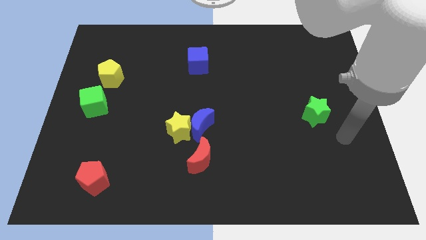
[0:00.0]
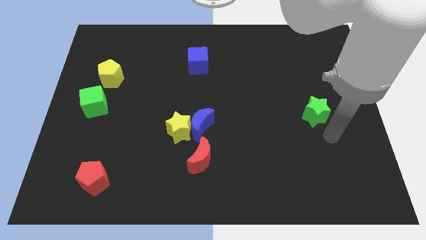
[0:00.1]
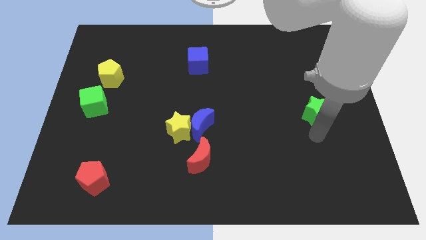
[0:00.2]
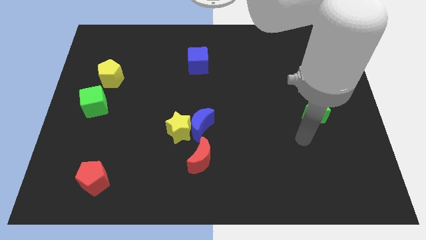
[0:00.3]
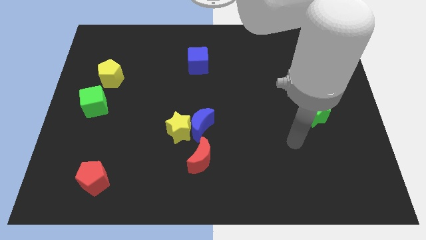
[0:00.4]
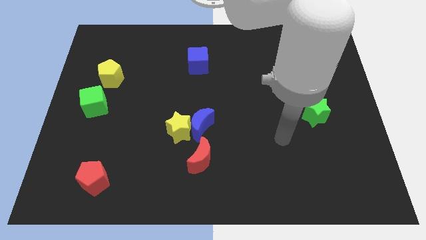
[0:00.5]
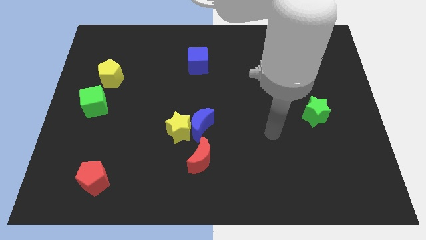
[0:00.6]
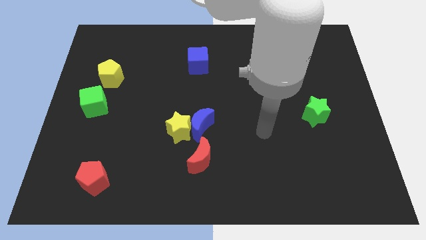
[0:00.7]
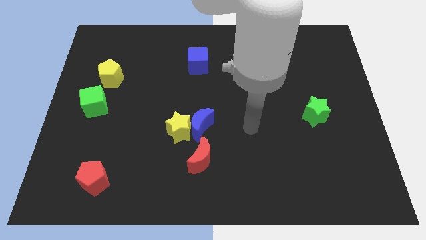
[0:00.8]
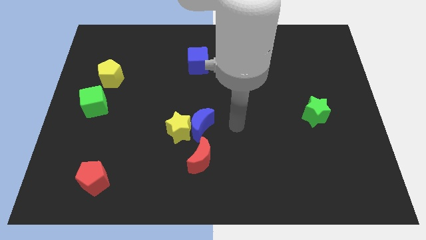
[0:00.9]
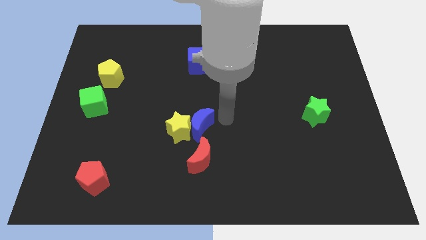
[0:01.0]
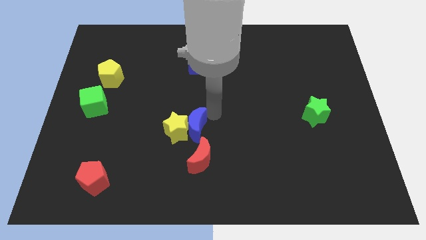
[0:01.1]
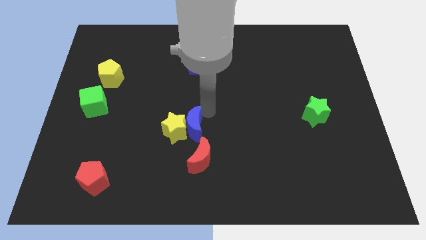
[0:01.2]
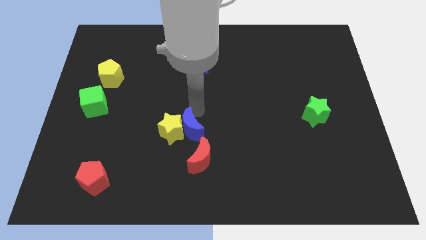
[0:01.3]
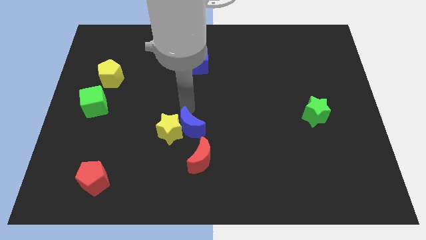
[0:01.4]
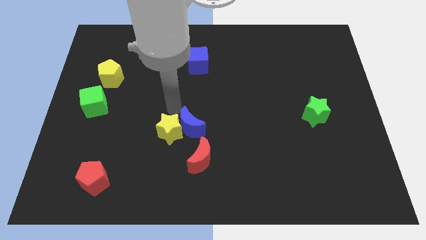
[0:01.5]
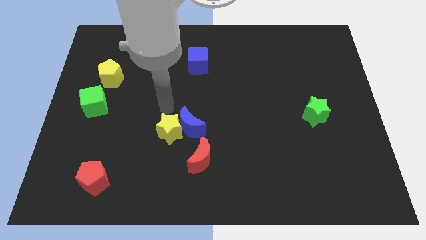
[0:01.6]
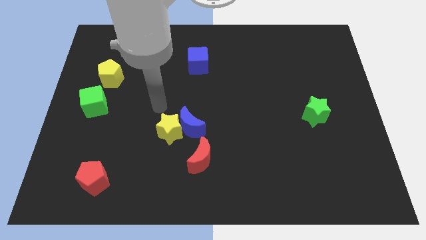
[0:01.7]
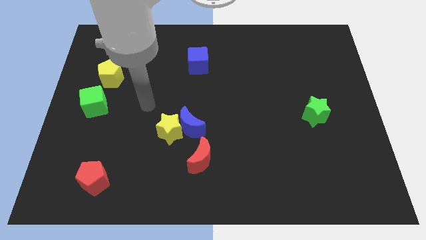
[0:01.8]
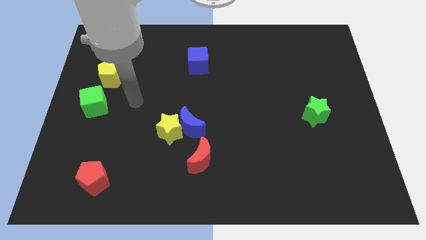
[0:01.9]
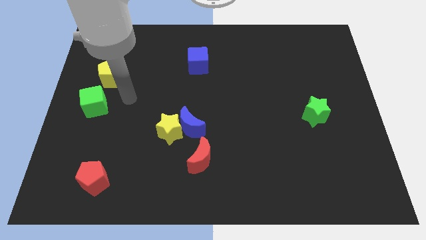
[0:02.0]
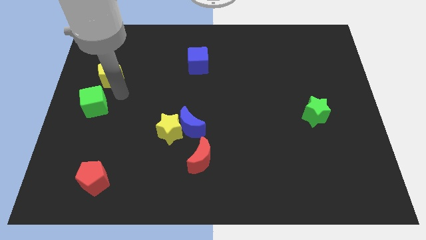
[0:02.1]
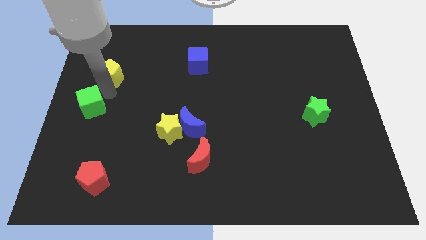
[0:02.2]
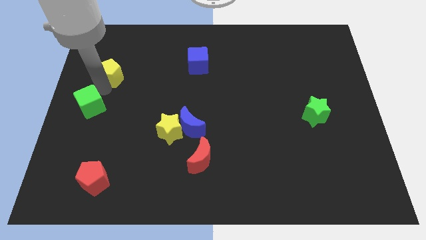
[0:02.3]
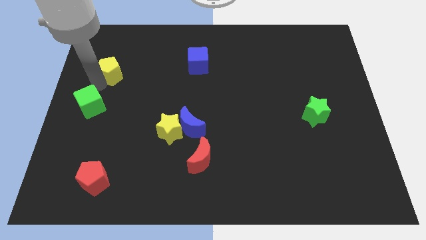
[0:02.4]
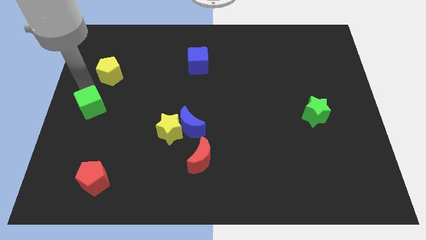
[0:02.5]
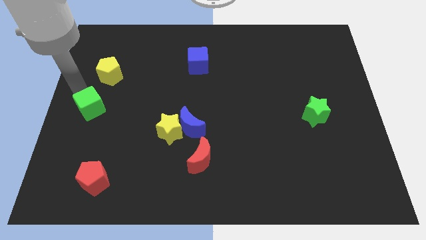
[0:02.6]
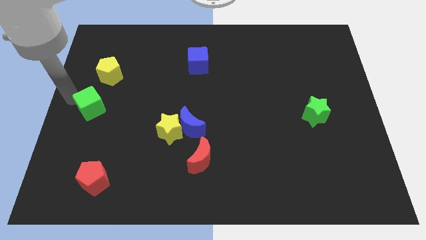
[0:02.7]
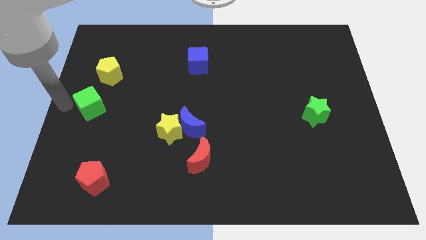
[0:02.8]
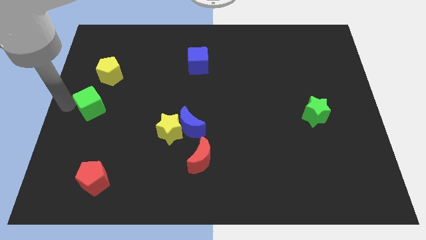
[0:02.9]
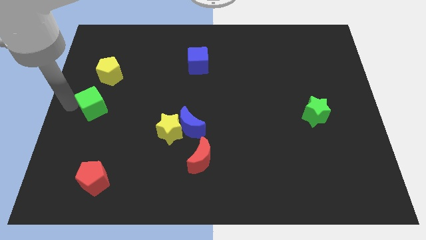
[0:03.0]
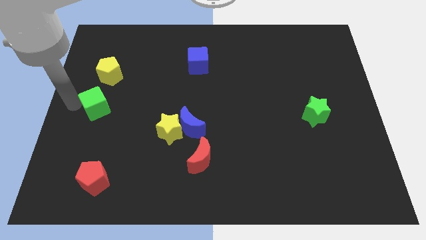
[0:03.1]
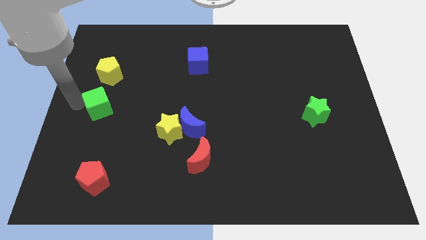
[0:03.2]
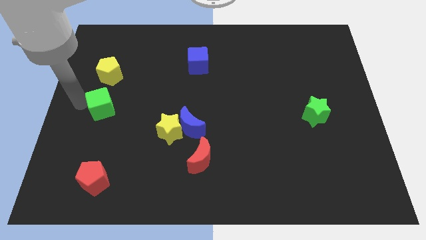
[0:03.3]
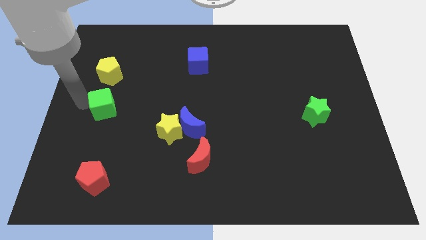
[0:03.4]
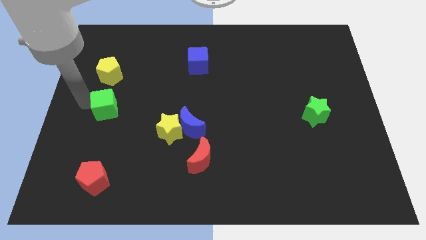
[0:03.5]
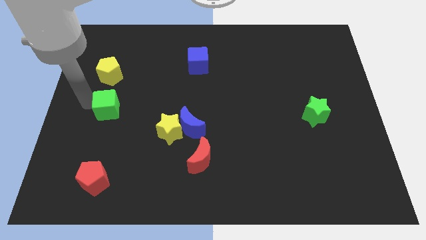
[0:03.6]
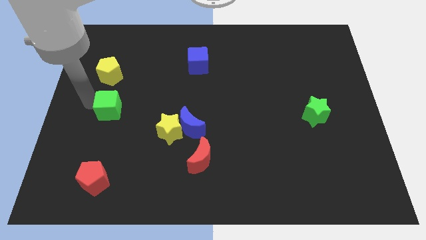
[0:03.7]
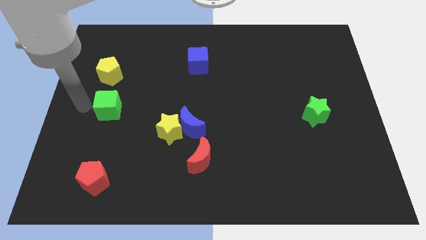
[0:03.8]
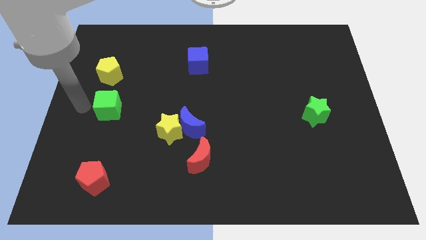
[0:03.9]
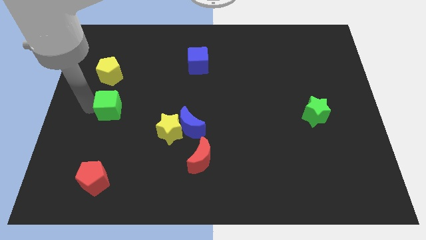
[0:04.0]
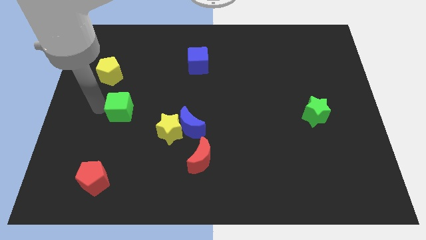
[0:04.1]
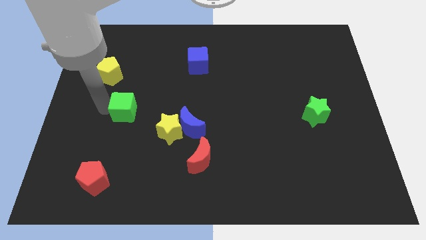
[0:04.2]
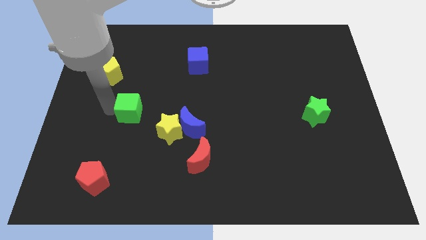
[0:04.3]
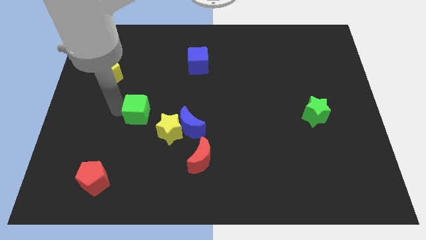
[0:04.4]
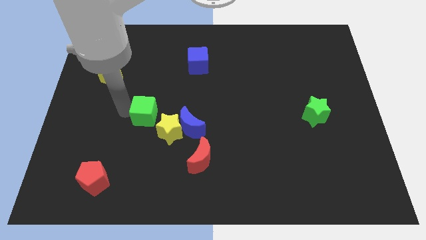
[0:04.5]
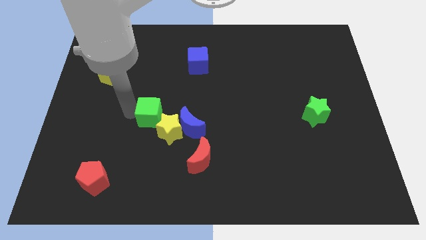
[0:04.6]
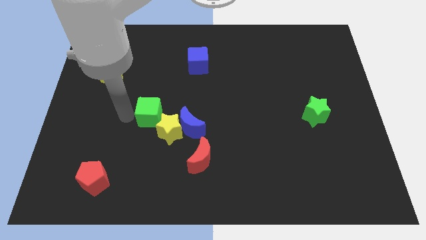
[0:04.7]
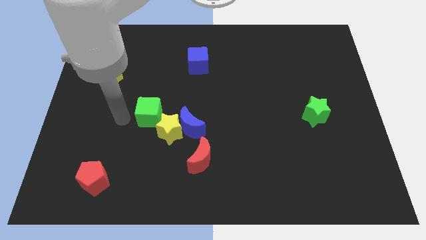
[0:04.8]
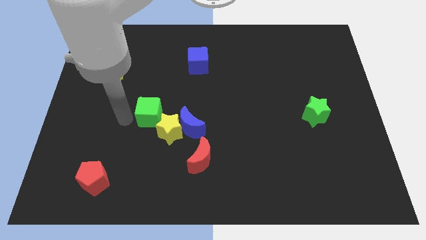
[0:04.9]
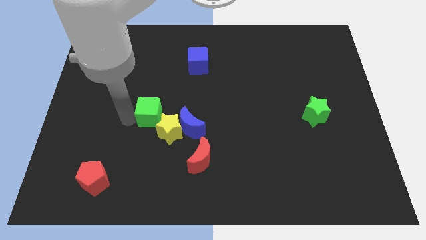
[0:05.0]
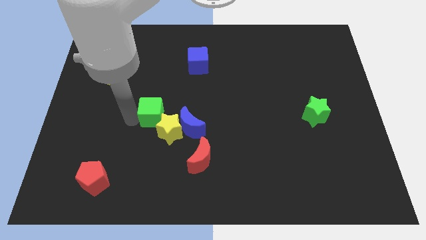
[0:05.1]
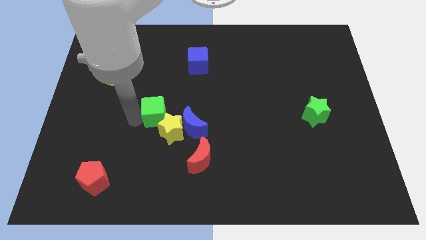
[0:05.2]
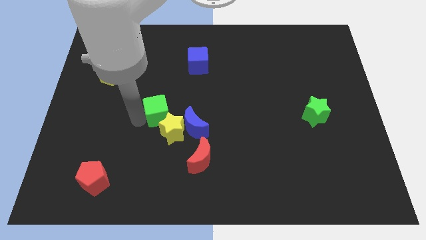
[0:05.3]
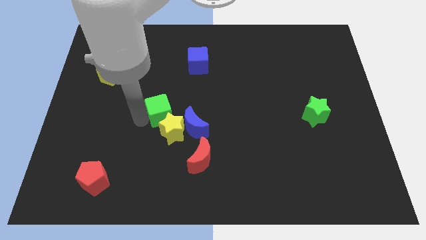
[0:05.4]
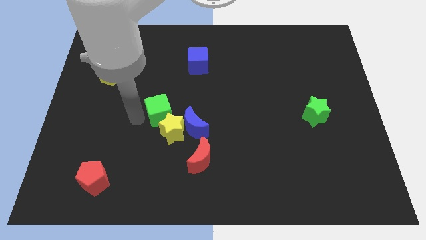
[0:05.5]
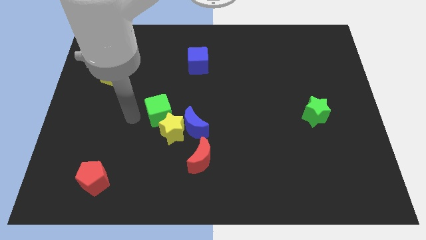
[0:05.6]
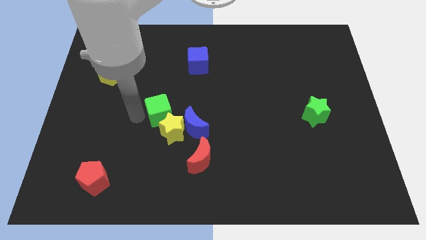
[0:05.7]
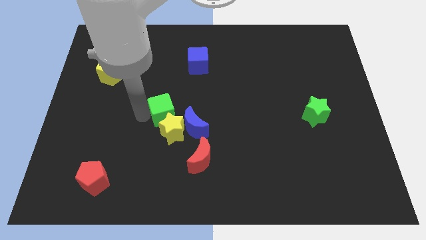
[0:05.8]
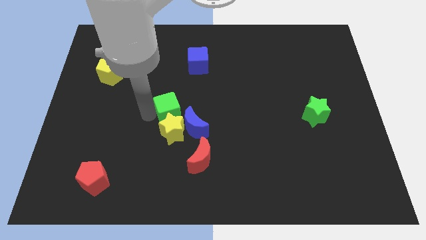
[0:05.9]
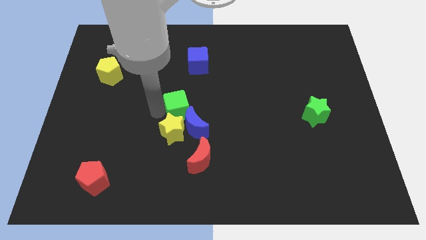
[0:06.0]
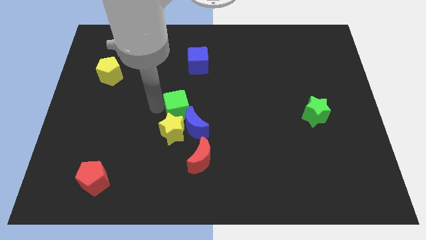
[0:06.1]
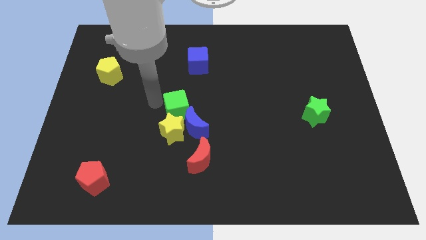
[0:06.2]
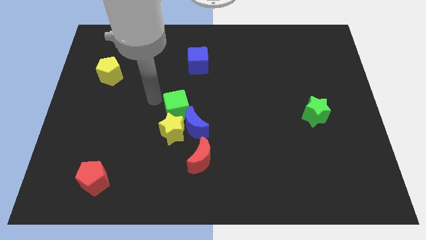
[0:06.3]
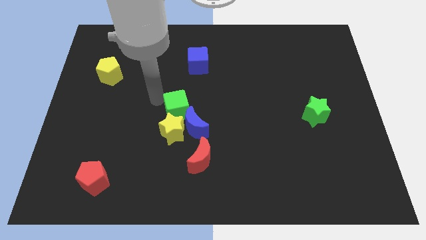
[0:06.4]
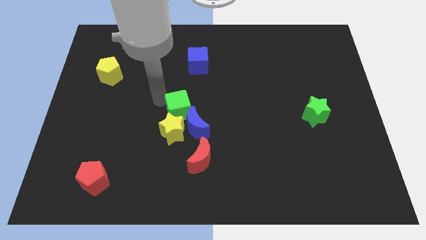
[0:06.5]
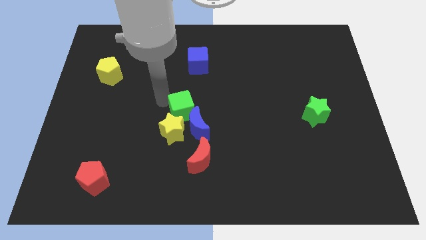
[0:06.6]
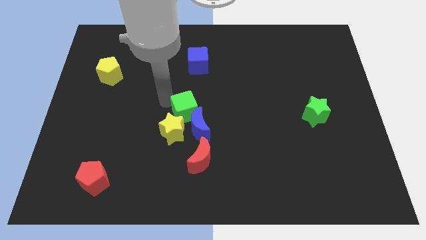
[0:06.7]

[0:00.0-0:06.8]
push the green cube to the top side of the red moon
